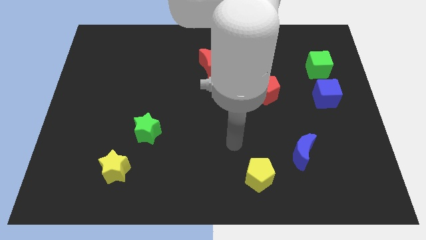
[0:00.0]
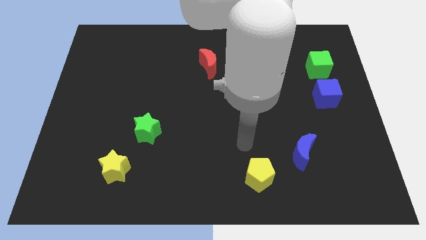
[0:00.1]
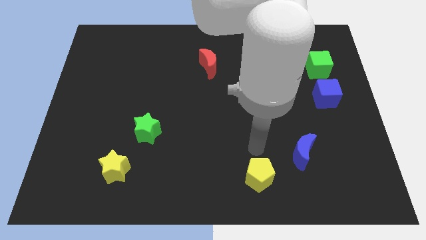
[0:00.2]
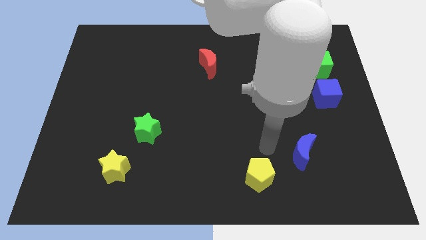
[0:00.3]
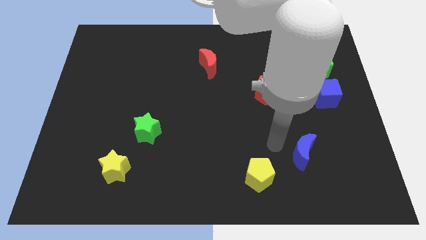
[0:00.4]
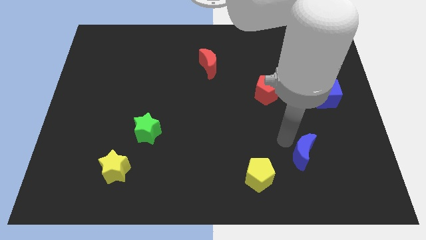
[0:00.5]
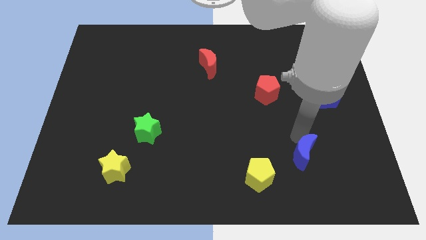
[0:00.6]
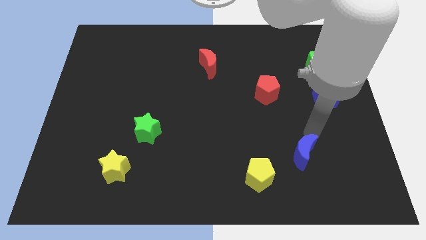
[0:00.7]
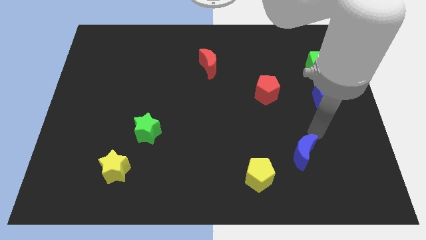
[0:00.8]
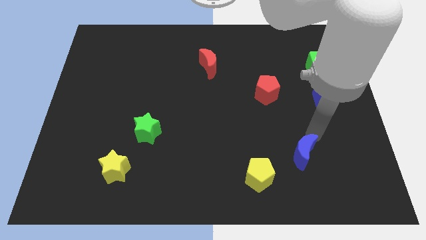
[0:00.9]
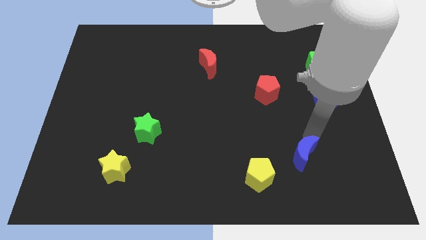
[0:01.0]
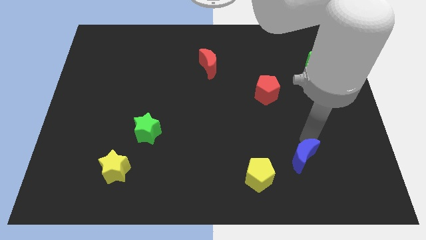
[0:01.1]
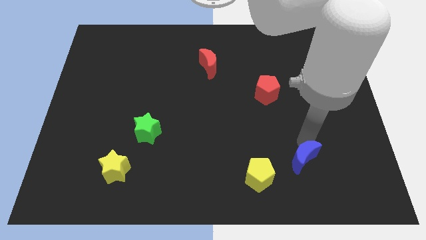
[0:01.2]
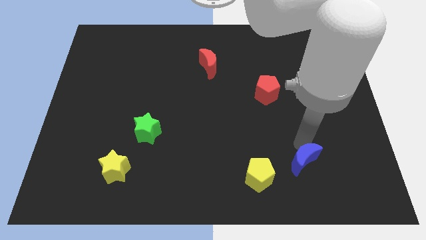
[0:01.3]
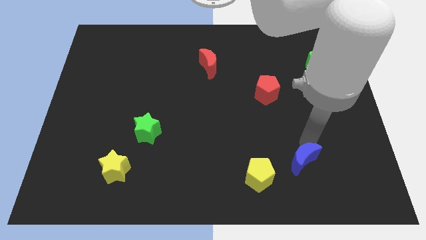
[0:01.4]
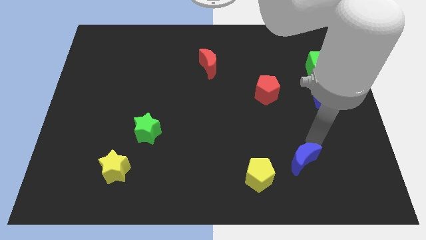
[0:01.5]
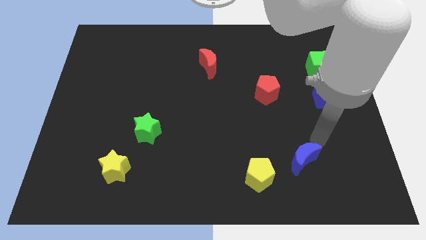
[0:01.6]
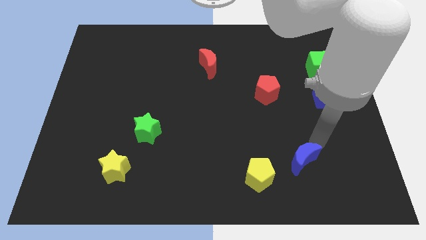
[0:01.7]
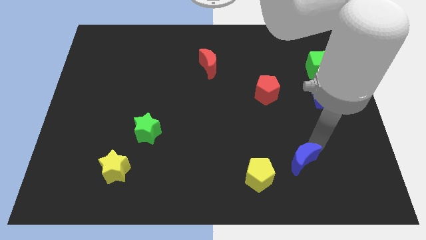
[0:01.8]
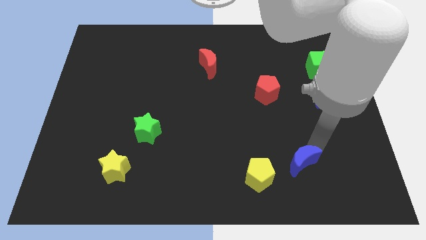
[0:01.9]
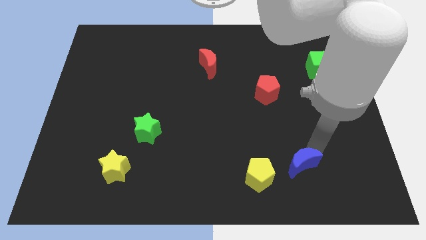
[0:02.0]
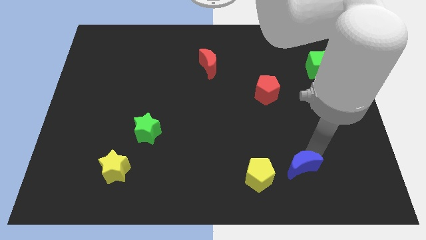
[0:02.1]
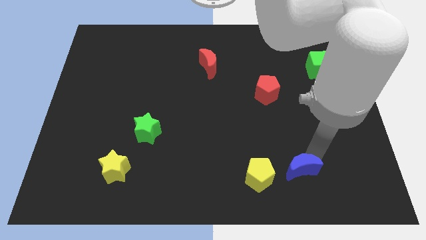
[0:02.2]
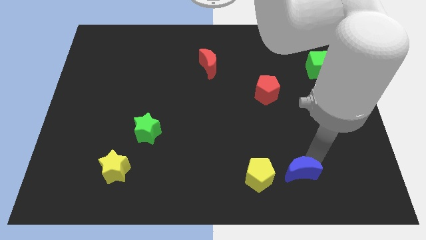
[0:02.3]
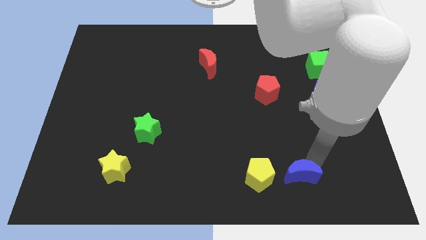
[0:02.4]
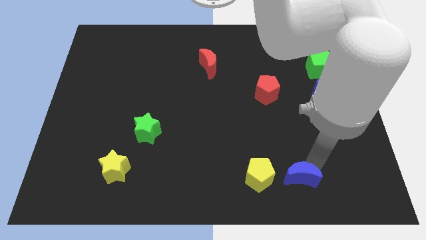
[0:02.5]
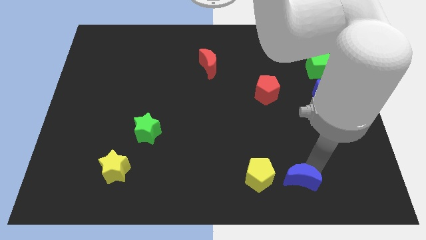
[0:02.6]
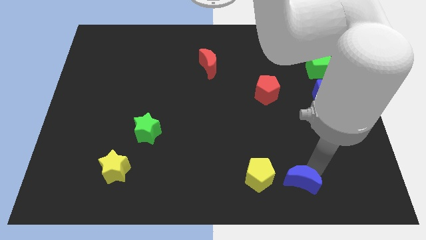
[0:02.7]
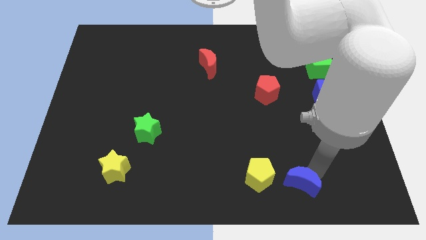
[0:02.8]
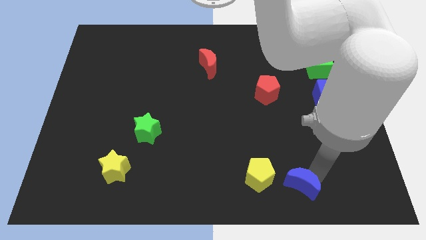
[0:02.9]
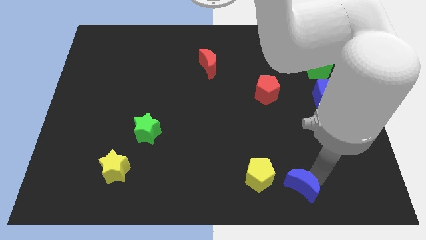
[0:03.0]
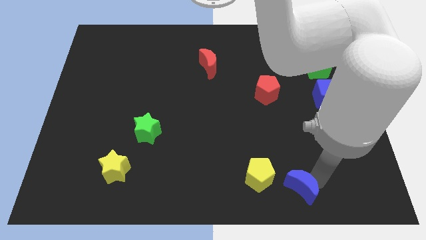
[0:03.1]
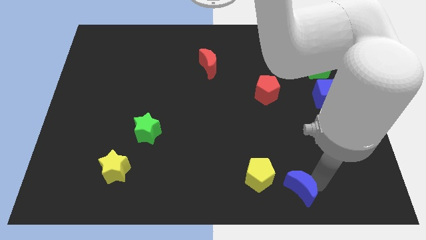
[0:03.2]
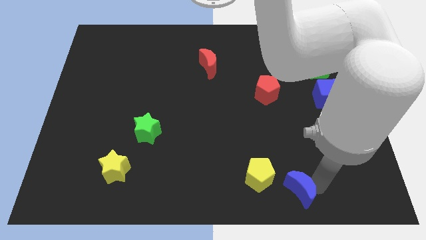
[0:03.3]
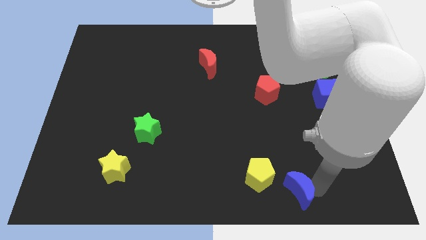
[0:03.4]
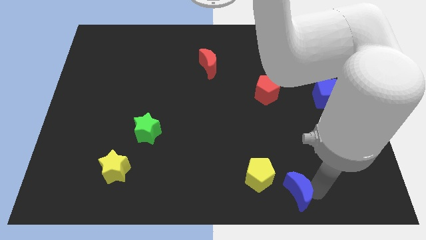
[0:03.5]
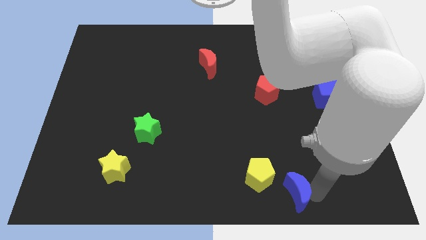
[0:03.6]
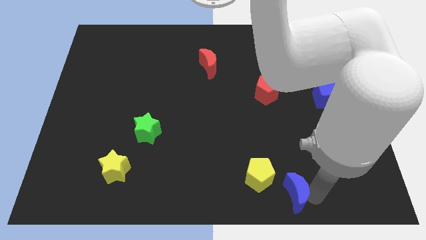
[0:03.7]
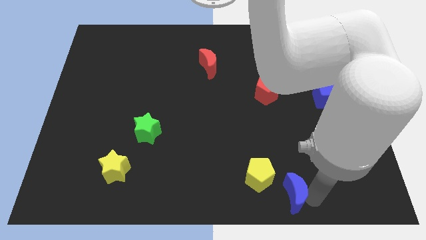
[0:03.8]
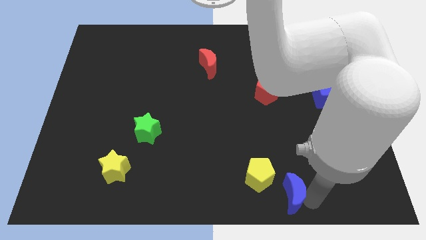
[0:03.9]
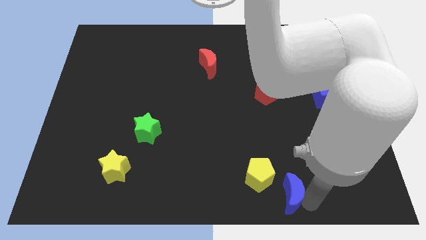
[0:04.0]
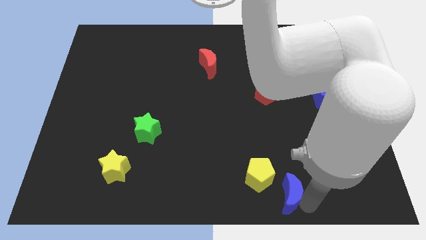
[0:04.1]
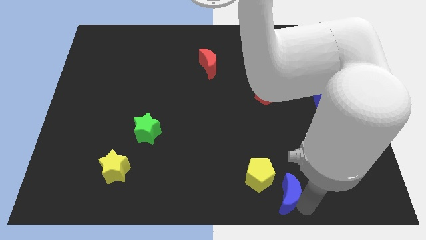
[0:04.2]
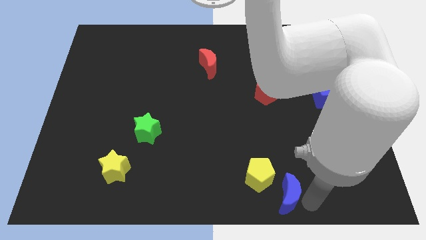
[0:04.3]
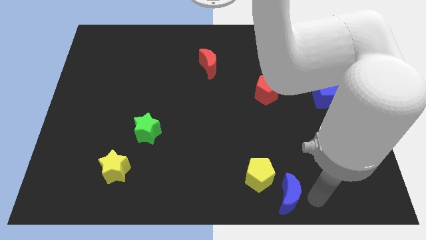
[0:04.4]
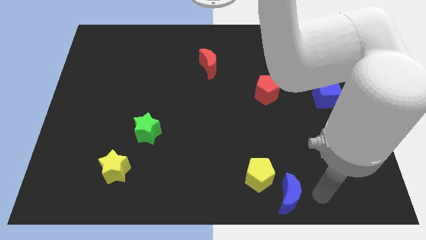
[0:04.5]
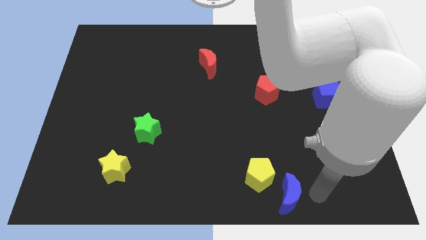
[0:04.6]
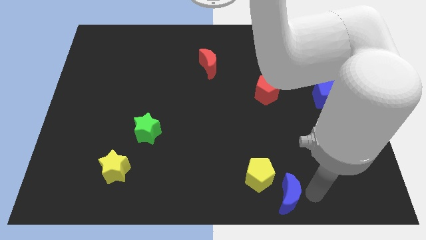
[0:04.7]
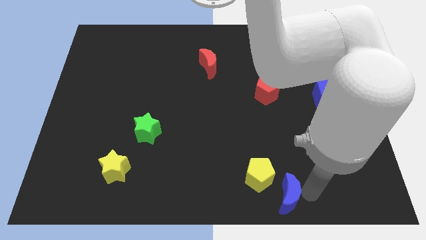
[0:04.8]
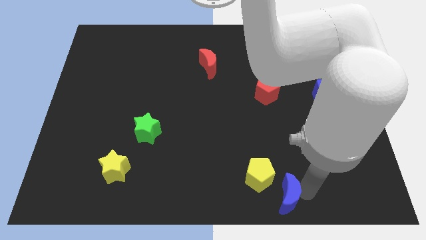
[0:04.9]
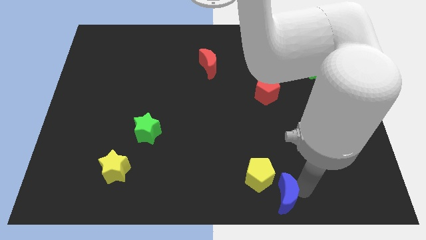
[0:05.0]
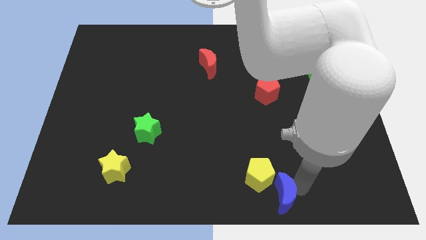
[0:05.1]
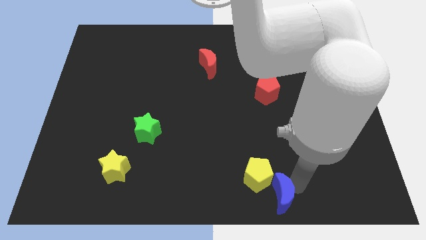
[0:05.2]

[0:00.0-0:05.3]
move the blue moon to the bottom

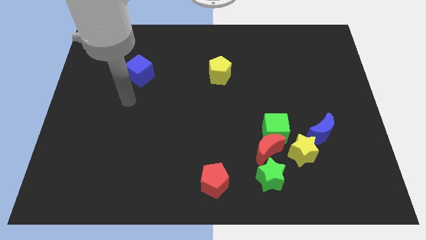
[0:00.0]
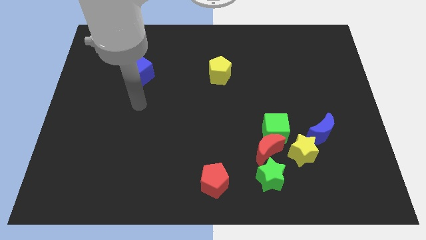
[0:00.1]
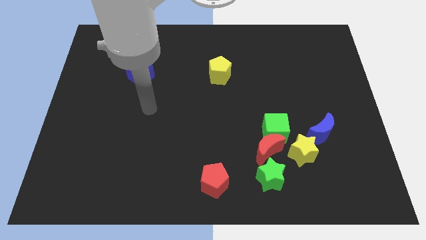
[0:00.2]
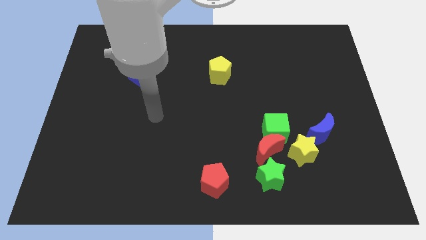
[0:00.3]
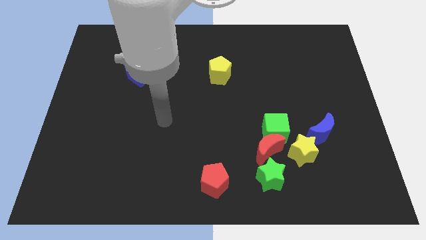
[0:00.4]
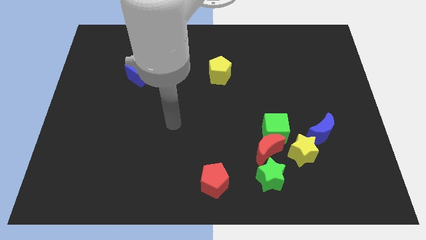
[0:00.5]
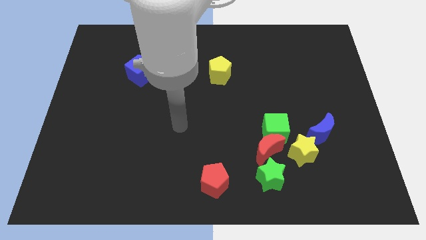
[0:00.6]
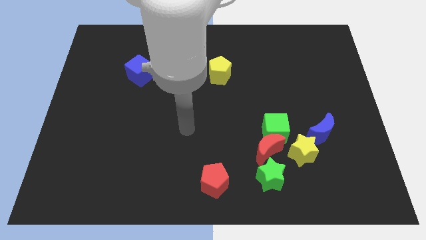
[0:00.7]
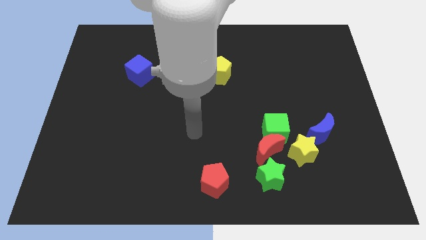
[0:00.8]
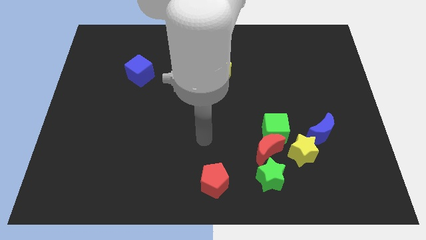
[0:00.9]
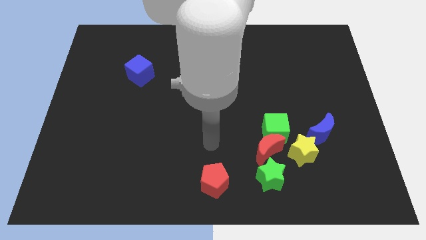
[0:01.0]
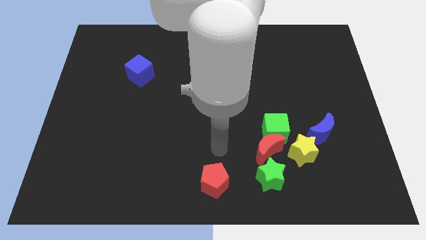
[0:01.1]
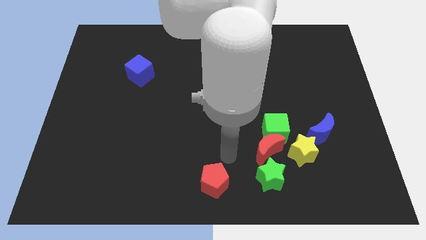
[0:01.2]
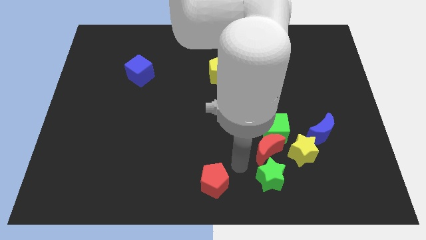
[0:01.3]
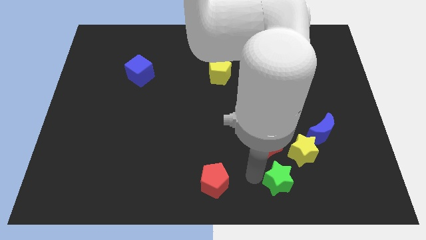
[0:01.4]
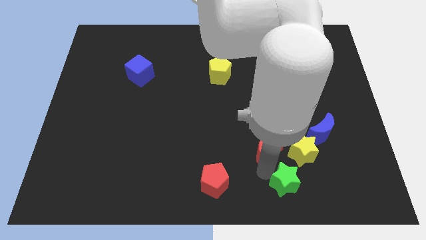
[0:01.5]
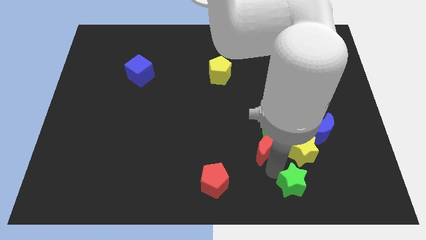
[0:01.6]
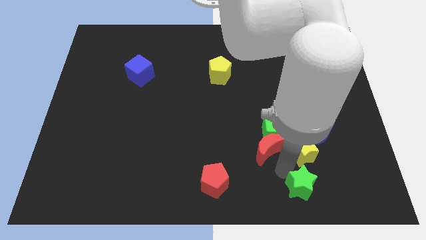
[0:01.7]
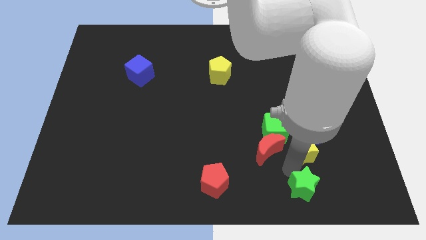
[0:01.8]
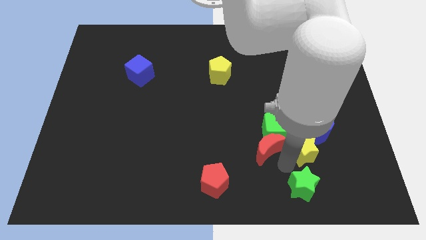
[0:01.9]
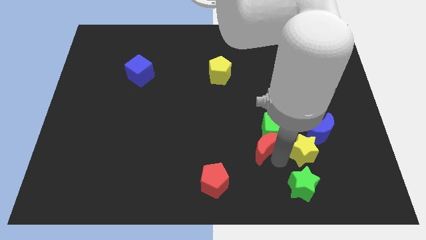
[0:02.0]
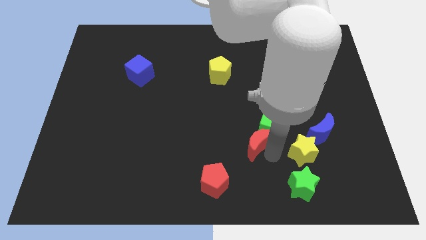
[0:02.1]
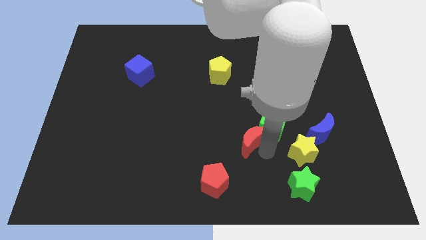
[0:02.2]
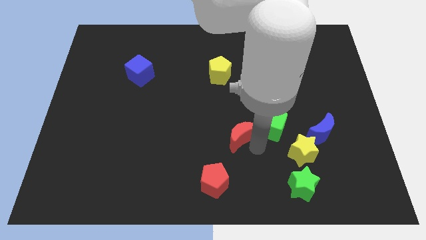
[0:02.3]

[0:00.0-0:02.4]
slide the red moon to the center of the board
